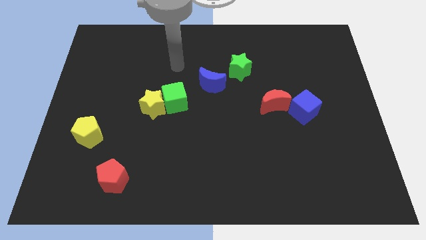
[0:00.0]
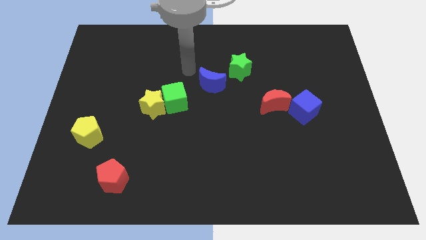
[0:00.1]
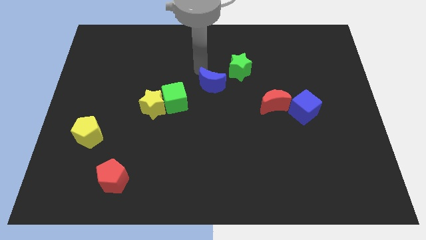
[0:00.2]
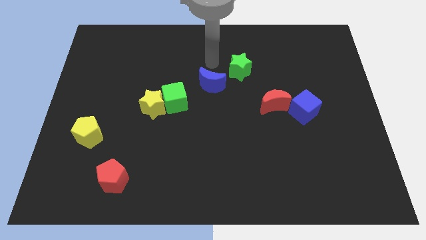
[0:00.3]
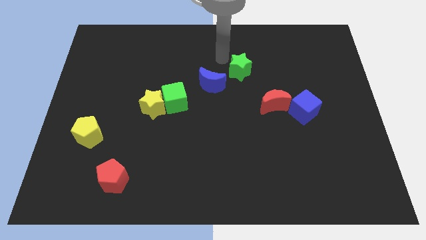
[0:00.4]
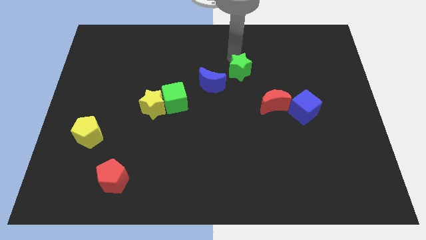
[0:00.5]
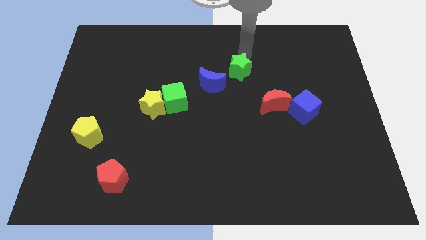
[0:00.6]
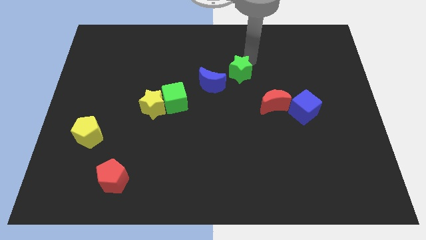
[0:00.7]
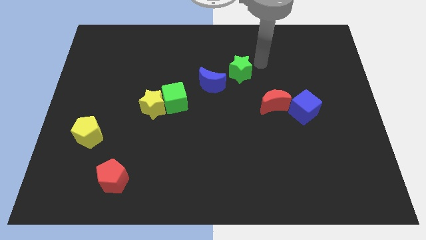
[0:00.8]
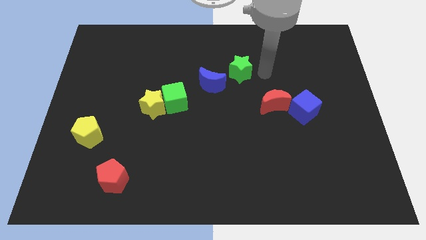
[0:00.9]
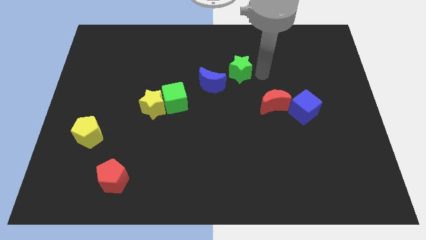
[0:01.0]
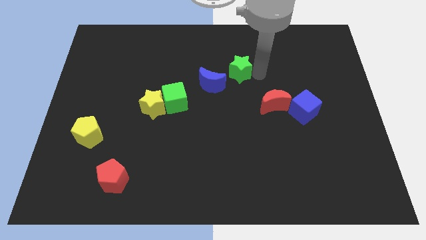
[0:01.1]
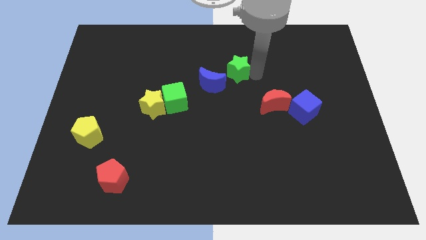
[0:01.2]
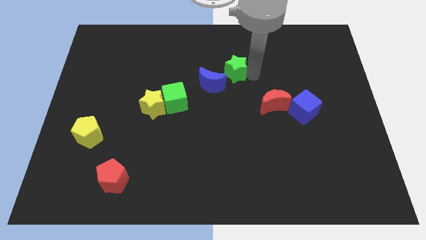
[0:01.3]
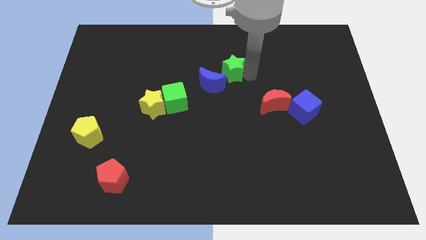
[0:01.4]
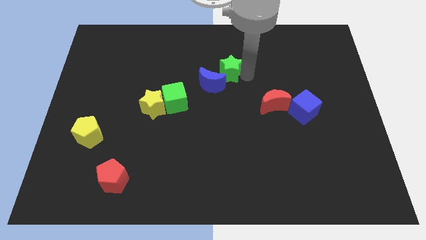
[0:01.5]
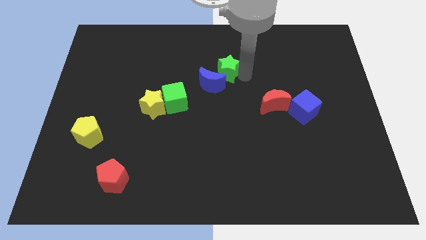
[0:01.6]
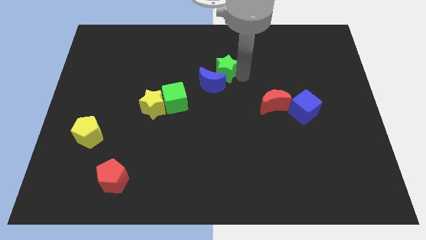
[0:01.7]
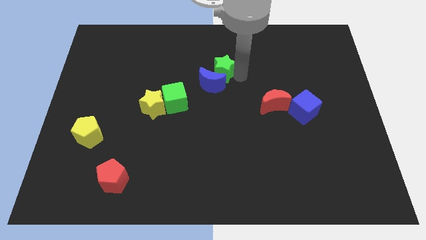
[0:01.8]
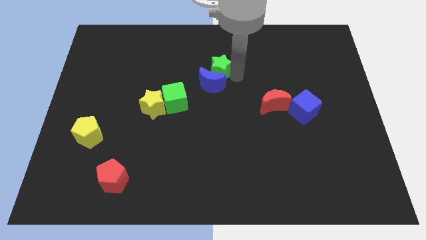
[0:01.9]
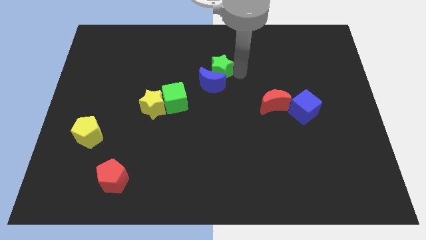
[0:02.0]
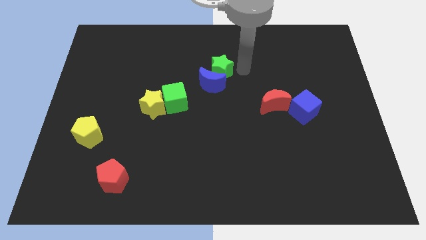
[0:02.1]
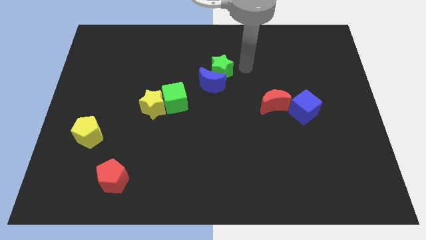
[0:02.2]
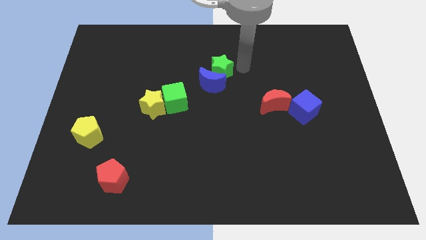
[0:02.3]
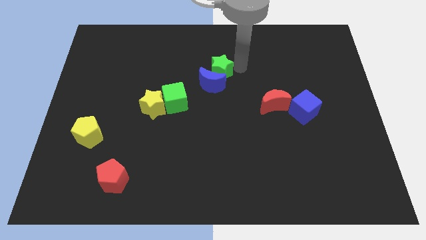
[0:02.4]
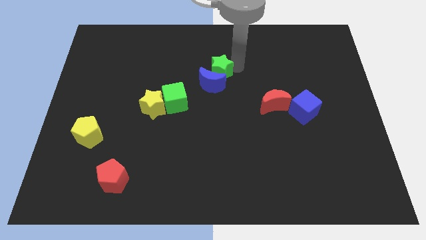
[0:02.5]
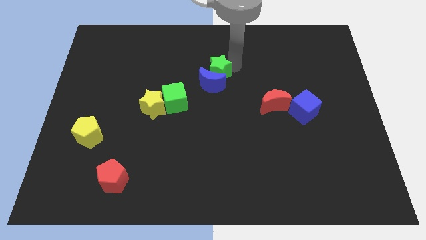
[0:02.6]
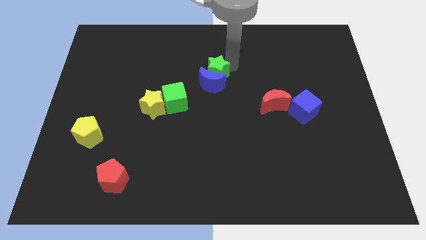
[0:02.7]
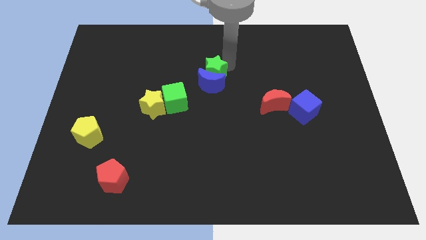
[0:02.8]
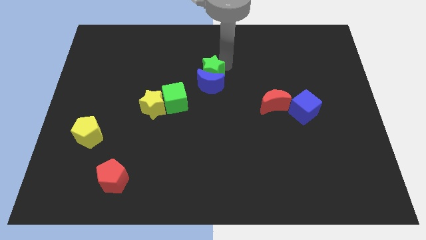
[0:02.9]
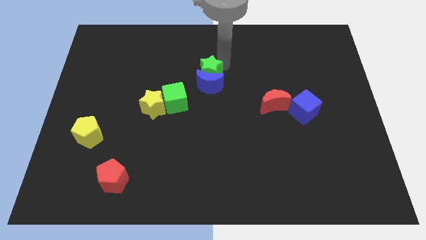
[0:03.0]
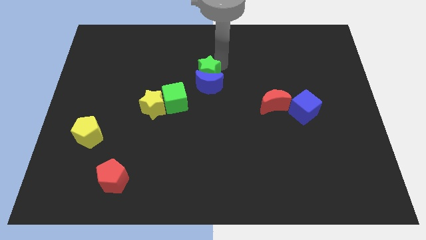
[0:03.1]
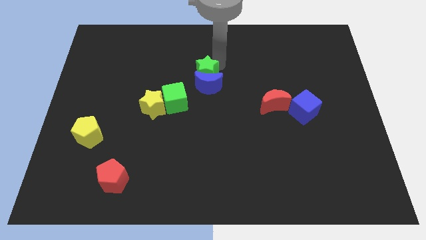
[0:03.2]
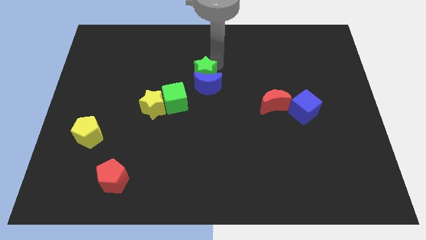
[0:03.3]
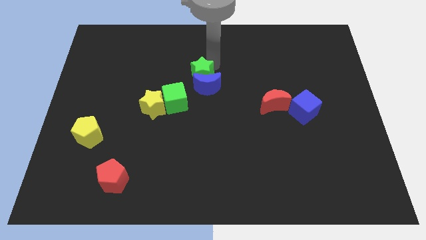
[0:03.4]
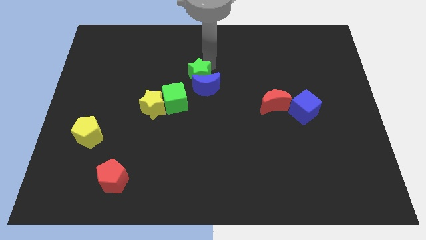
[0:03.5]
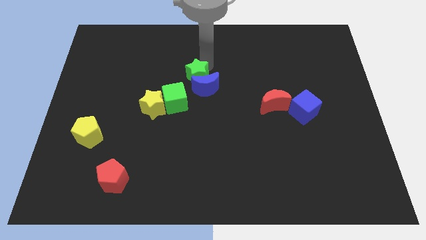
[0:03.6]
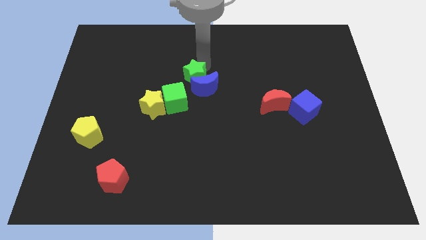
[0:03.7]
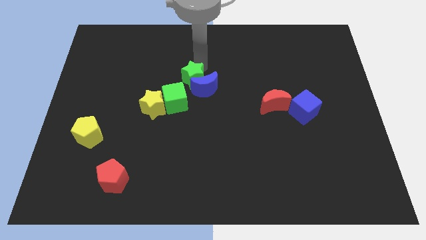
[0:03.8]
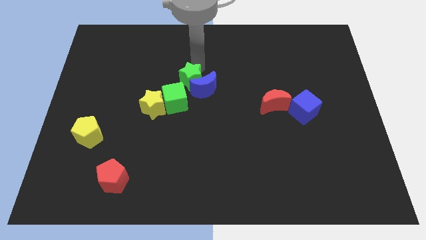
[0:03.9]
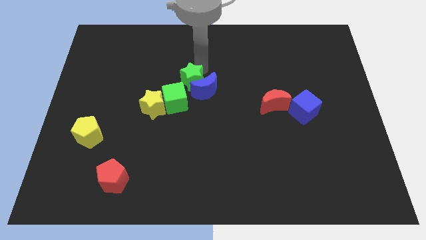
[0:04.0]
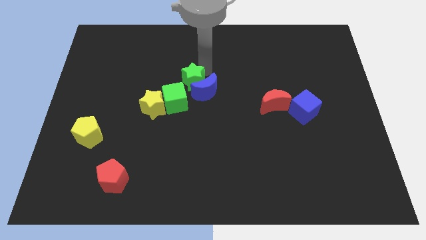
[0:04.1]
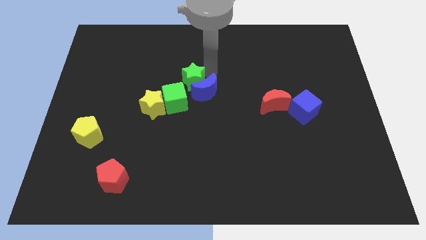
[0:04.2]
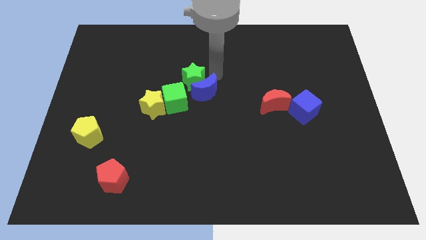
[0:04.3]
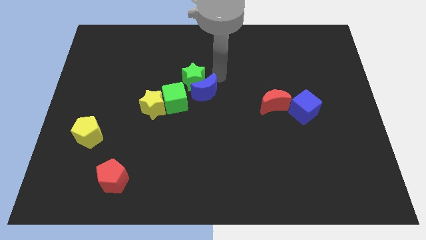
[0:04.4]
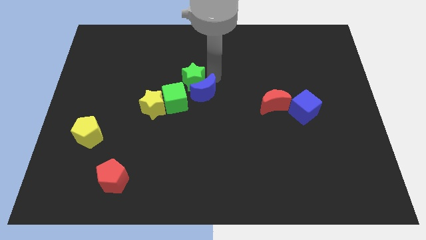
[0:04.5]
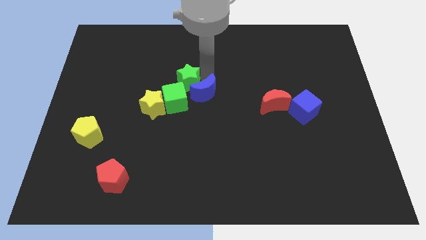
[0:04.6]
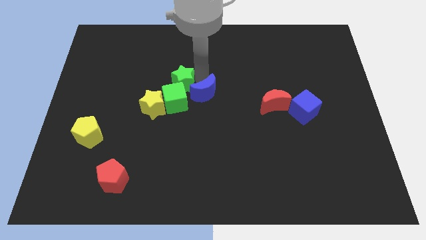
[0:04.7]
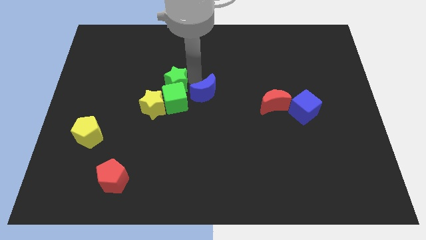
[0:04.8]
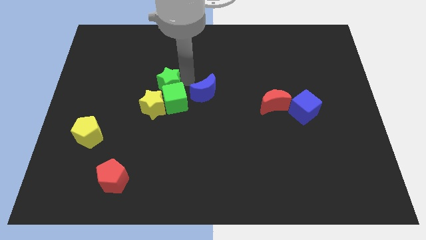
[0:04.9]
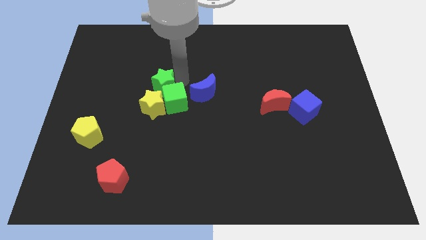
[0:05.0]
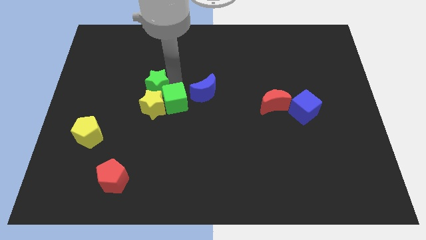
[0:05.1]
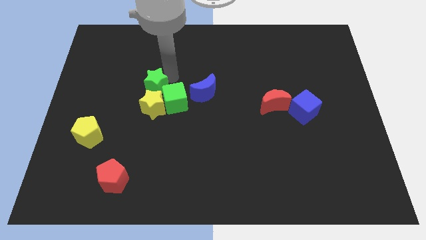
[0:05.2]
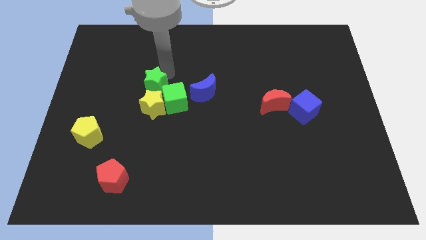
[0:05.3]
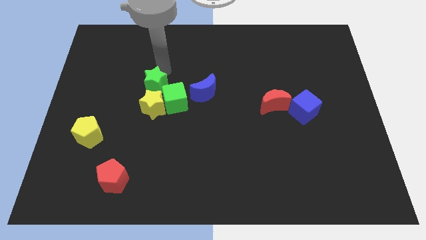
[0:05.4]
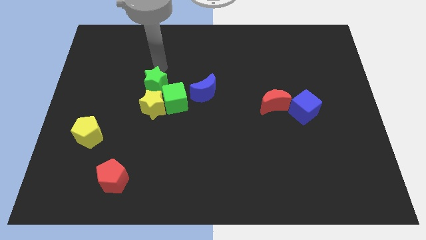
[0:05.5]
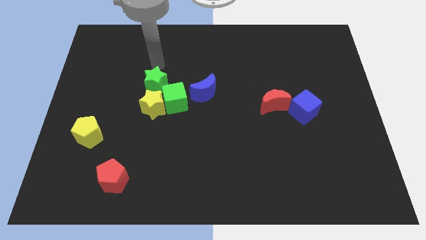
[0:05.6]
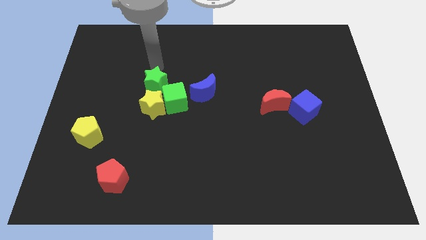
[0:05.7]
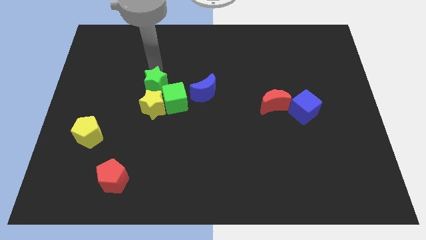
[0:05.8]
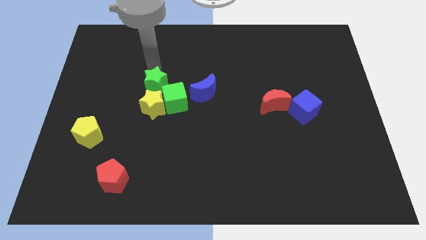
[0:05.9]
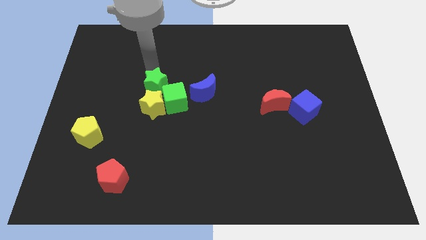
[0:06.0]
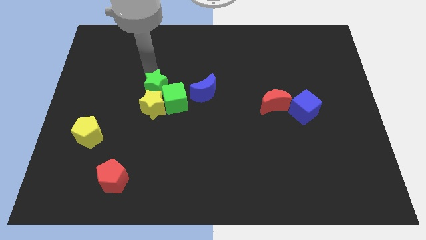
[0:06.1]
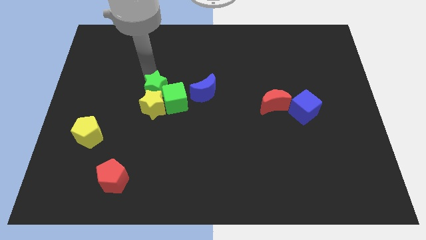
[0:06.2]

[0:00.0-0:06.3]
slide the green star to the yellow star

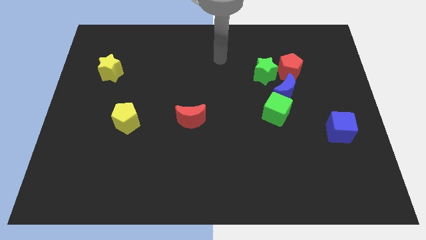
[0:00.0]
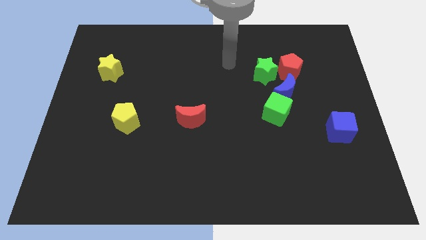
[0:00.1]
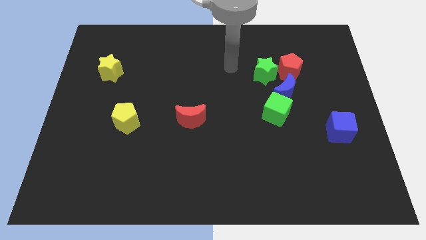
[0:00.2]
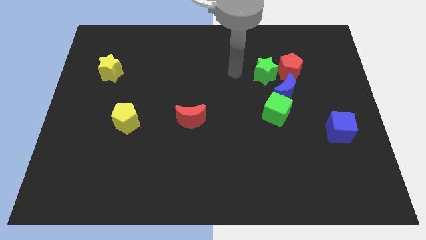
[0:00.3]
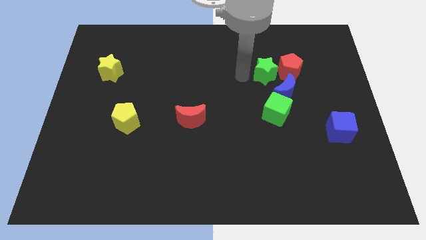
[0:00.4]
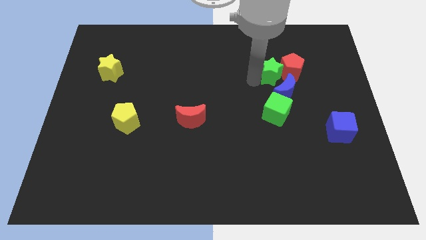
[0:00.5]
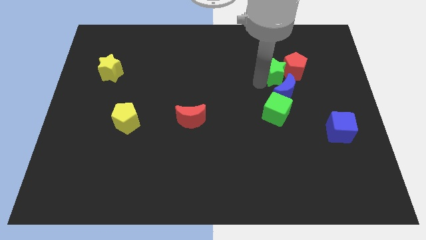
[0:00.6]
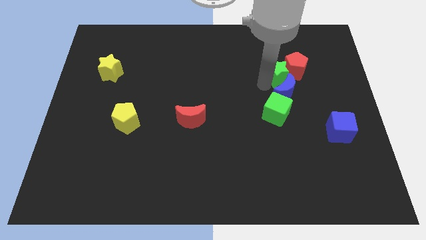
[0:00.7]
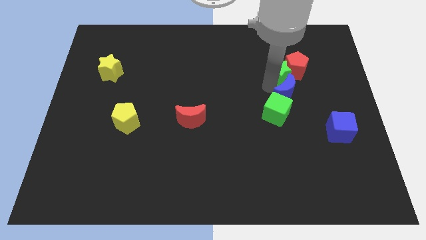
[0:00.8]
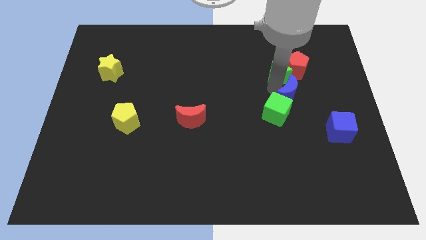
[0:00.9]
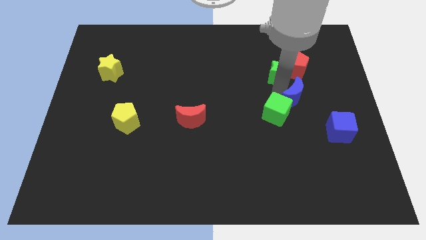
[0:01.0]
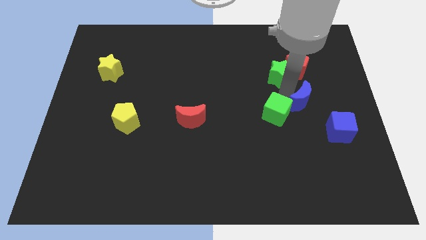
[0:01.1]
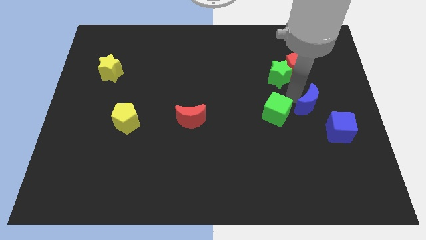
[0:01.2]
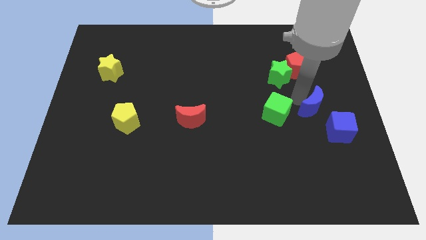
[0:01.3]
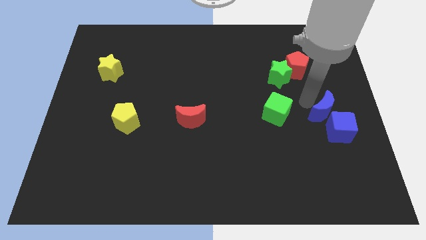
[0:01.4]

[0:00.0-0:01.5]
put the blue moon towards the blue cube
